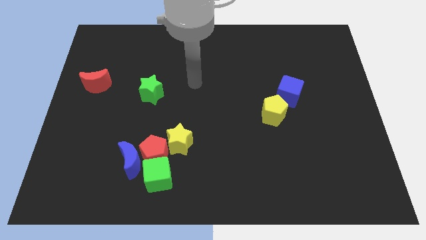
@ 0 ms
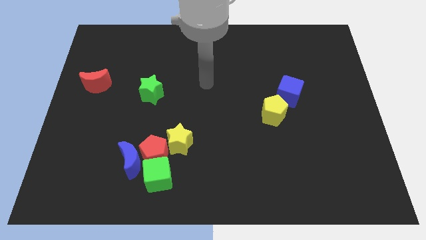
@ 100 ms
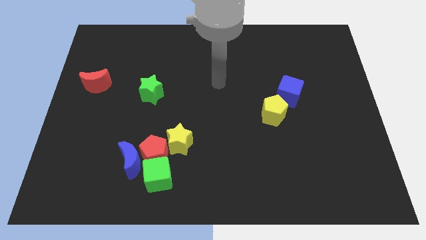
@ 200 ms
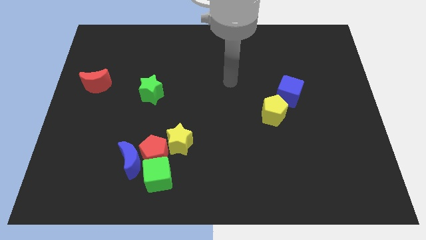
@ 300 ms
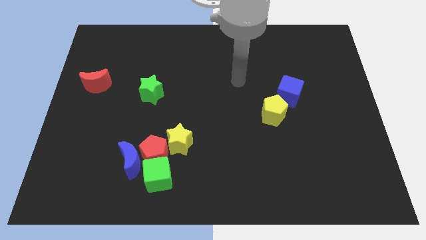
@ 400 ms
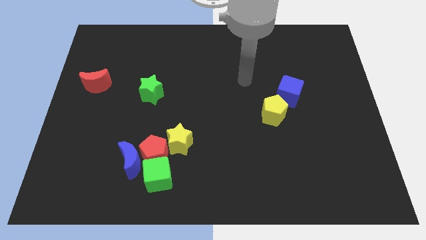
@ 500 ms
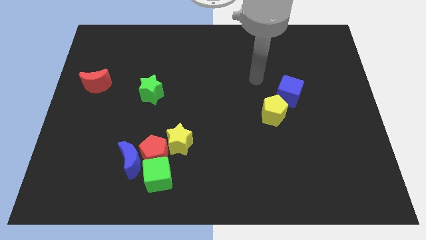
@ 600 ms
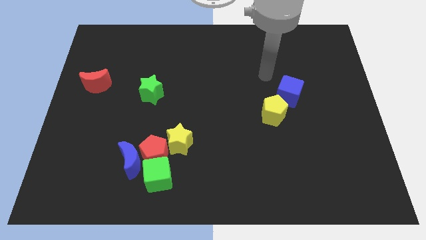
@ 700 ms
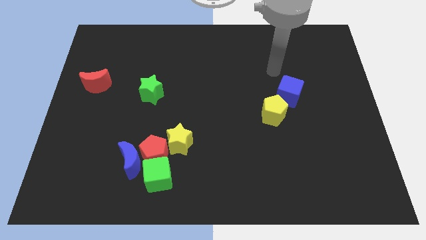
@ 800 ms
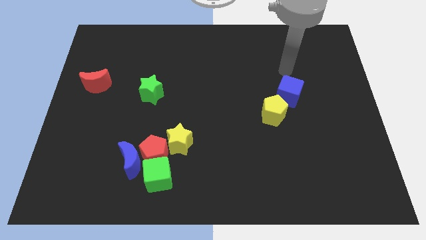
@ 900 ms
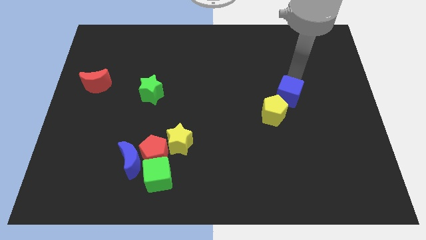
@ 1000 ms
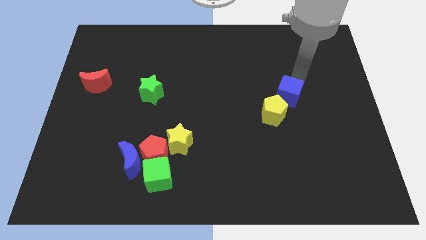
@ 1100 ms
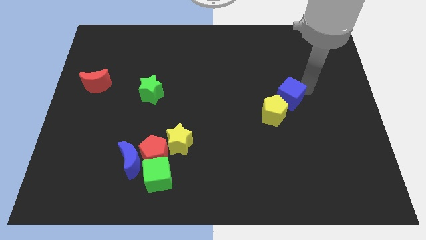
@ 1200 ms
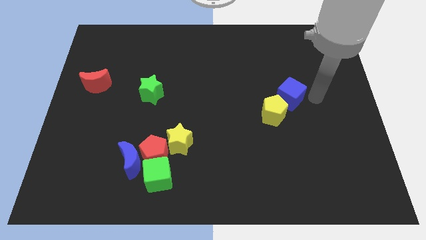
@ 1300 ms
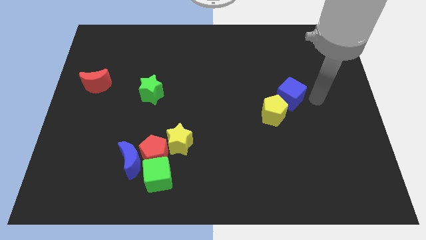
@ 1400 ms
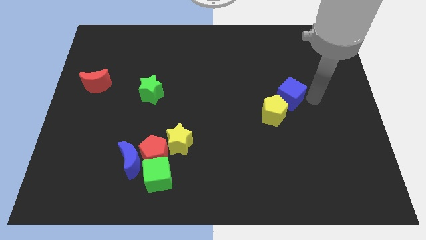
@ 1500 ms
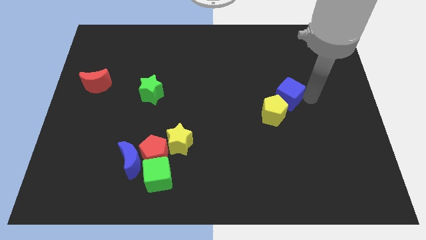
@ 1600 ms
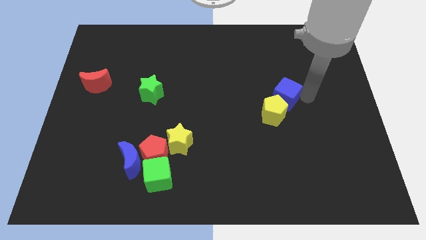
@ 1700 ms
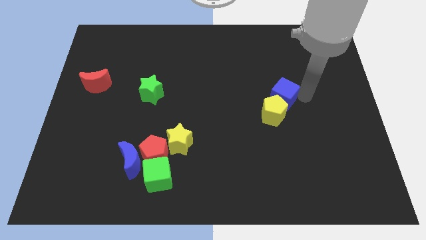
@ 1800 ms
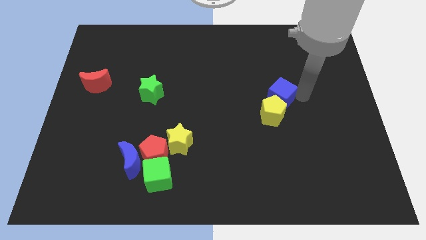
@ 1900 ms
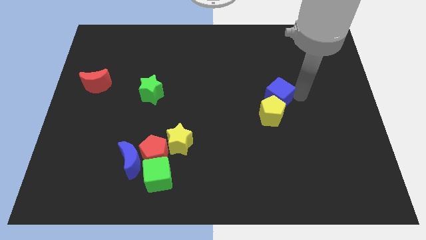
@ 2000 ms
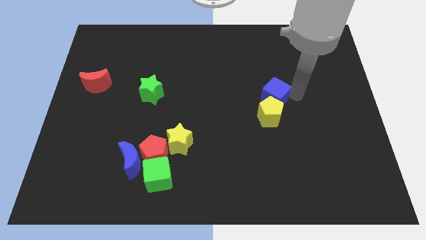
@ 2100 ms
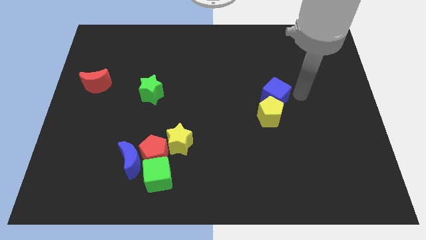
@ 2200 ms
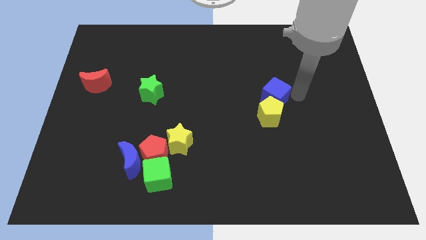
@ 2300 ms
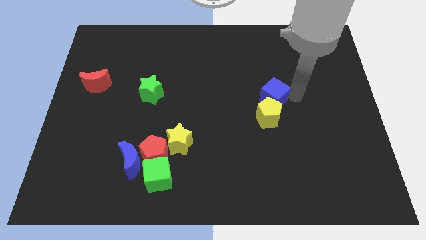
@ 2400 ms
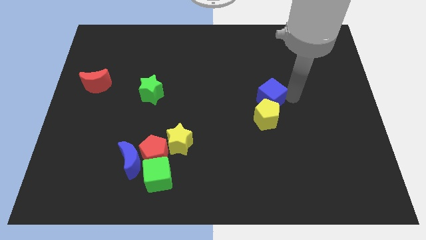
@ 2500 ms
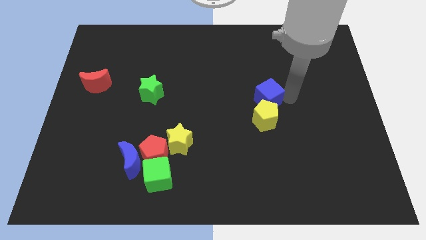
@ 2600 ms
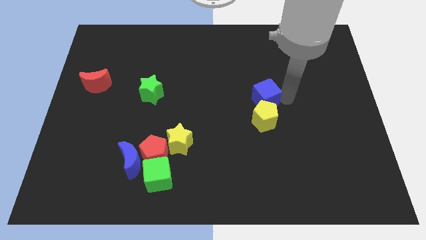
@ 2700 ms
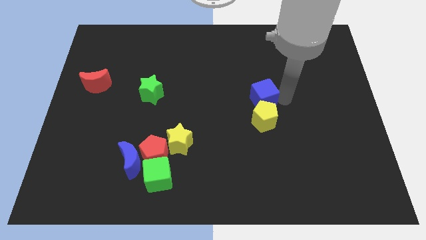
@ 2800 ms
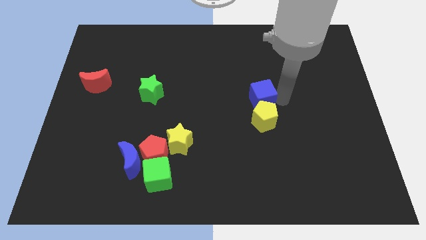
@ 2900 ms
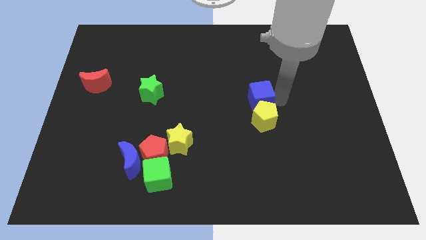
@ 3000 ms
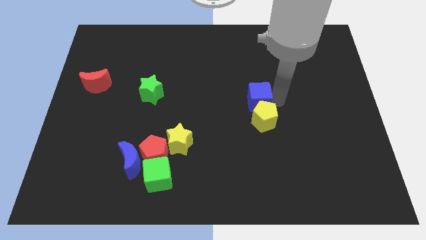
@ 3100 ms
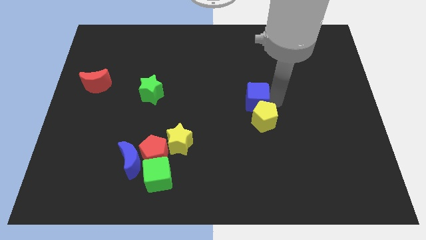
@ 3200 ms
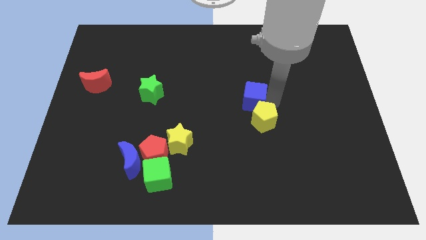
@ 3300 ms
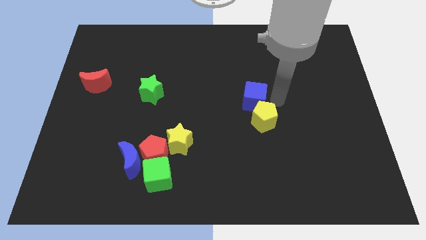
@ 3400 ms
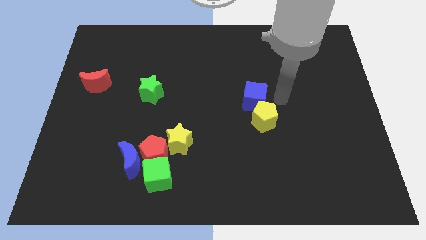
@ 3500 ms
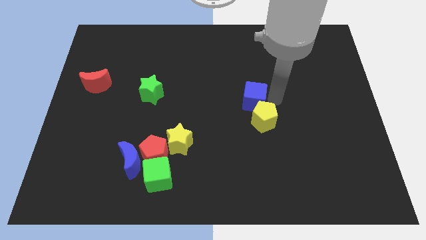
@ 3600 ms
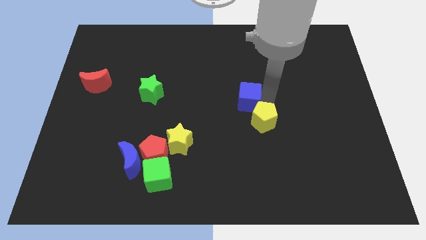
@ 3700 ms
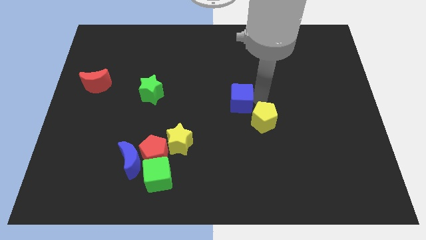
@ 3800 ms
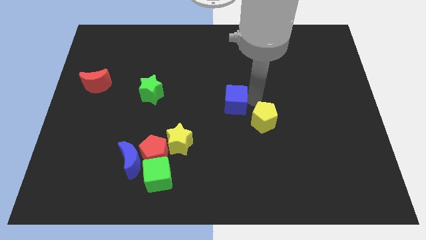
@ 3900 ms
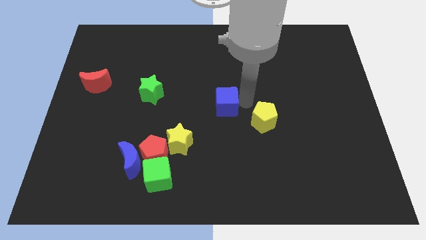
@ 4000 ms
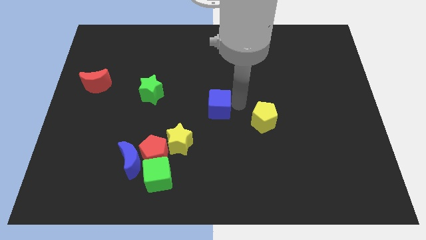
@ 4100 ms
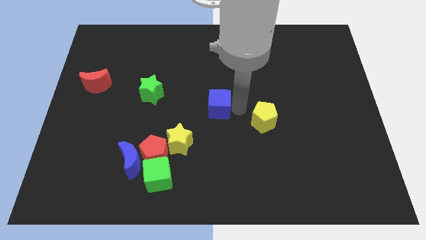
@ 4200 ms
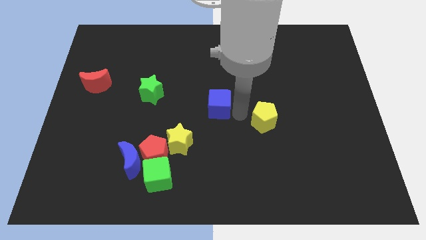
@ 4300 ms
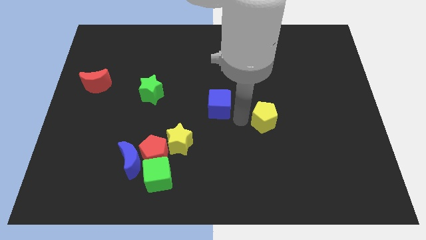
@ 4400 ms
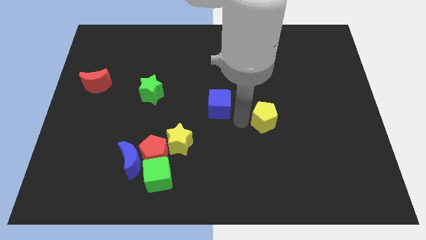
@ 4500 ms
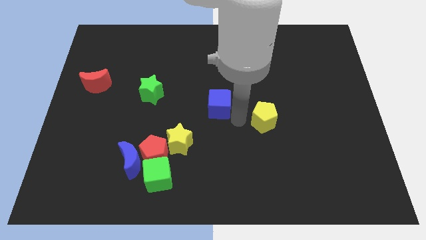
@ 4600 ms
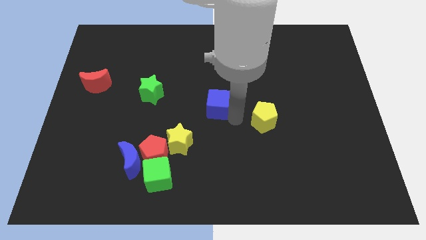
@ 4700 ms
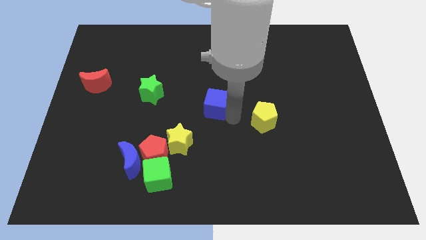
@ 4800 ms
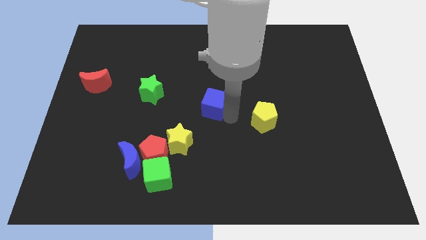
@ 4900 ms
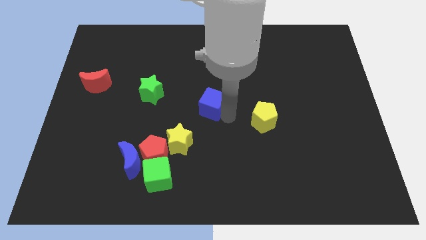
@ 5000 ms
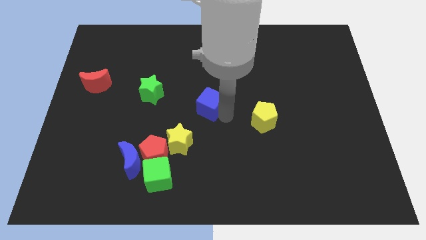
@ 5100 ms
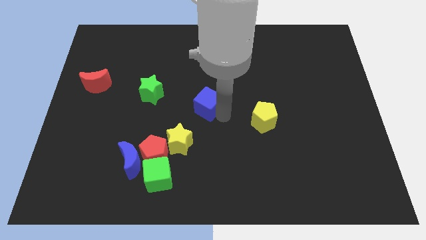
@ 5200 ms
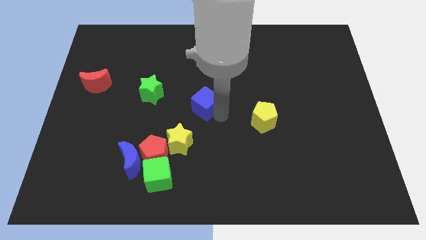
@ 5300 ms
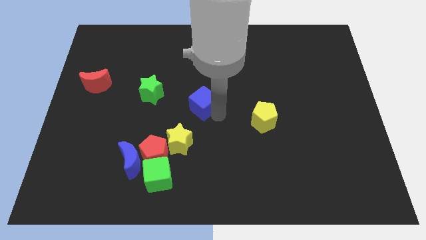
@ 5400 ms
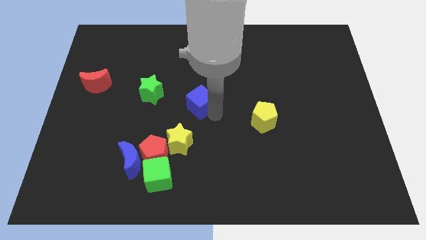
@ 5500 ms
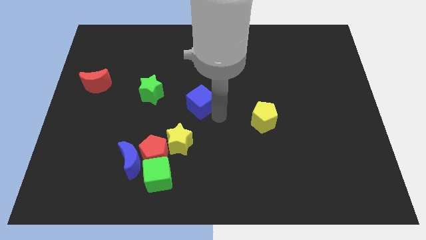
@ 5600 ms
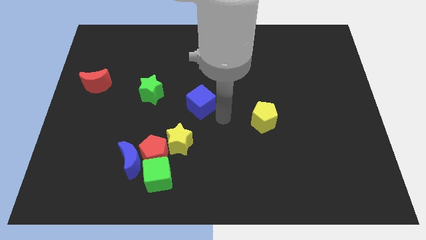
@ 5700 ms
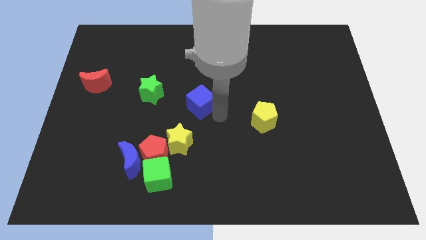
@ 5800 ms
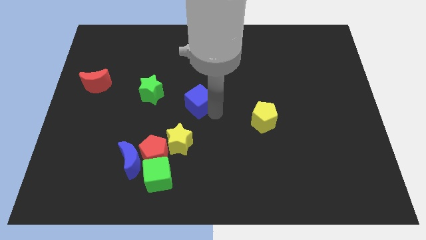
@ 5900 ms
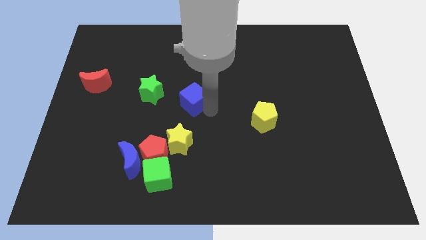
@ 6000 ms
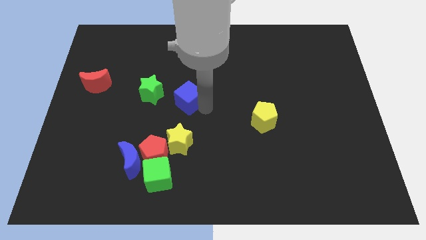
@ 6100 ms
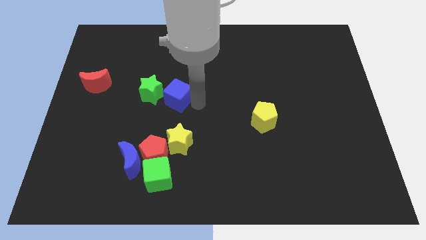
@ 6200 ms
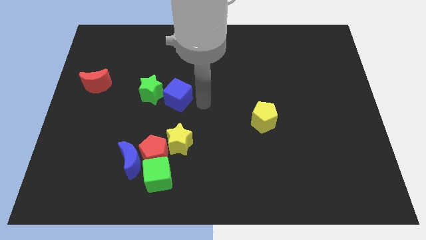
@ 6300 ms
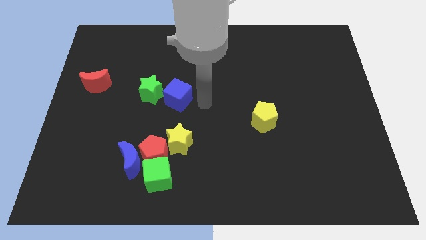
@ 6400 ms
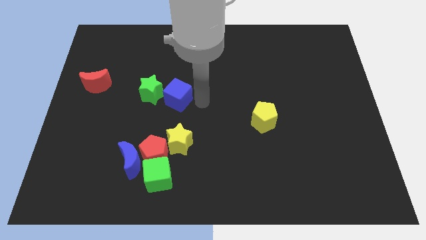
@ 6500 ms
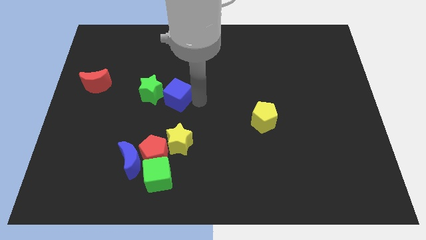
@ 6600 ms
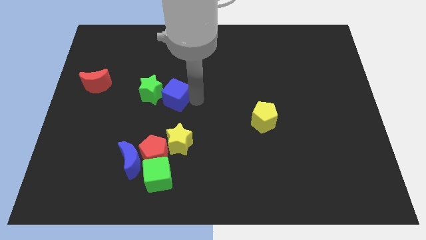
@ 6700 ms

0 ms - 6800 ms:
slide the blue cube towards the green star

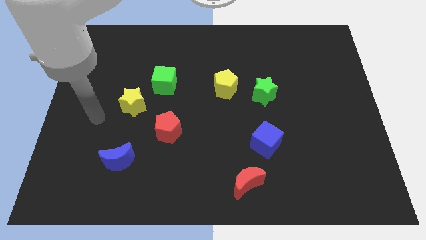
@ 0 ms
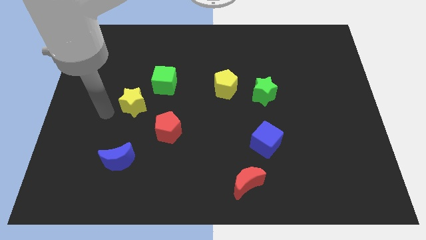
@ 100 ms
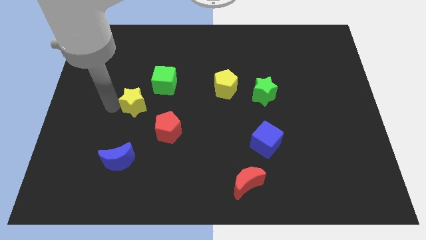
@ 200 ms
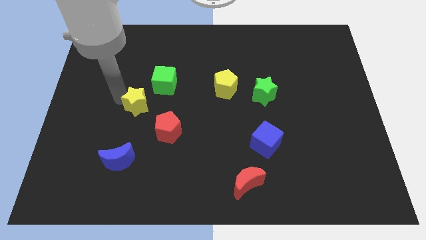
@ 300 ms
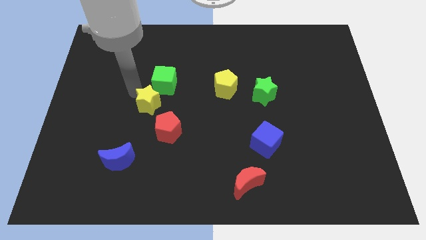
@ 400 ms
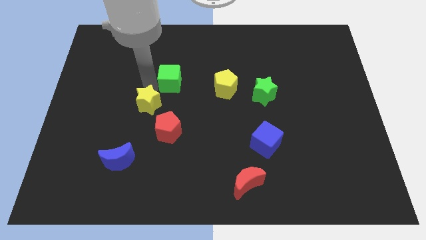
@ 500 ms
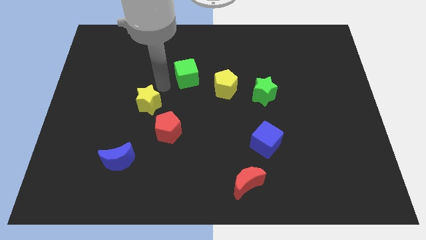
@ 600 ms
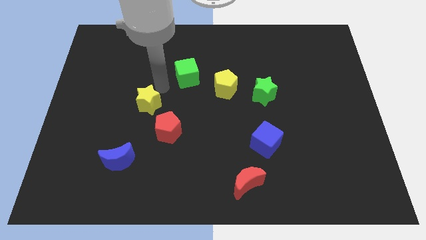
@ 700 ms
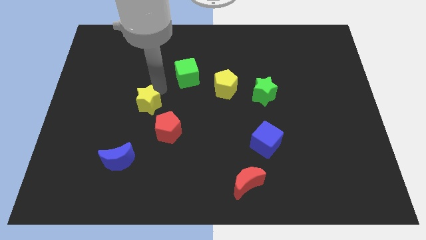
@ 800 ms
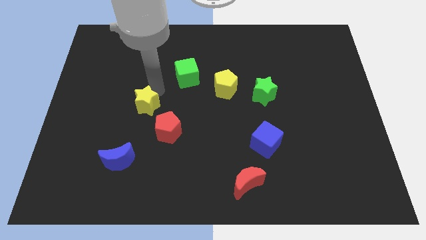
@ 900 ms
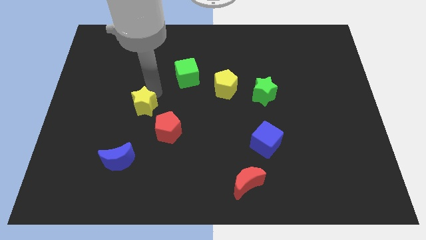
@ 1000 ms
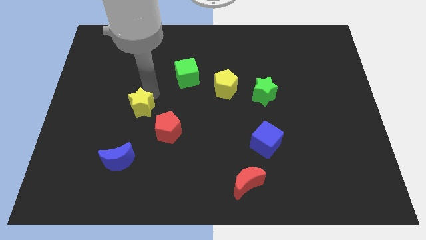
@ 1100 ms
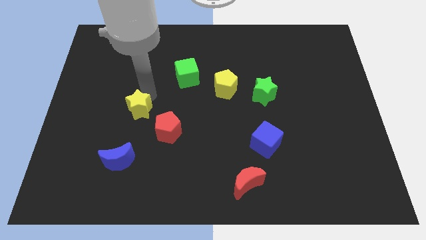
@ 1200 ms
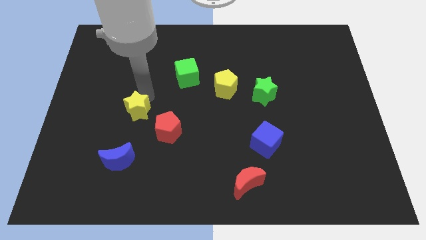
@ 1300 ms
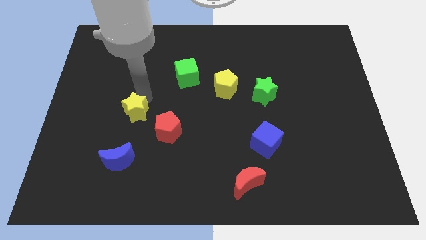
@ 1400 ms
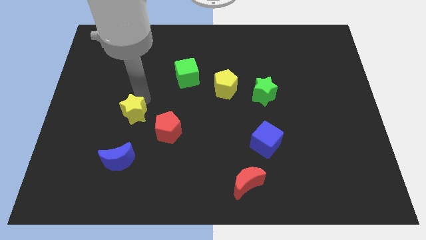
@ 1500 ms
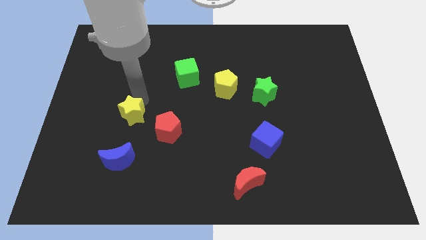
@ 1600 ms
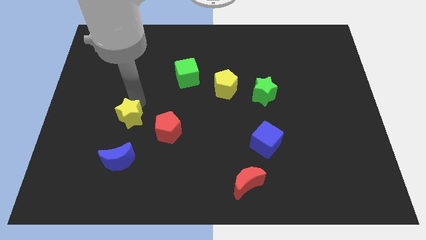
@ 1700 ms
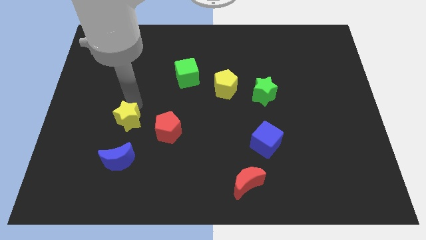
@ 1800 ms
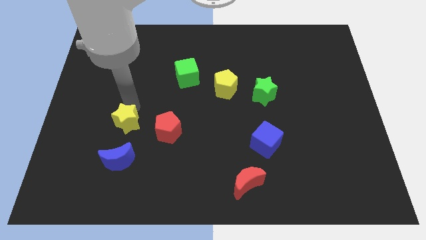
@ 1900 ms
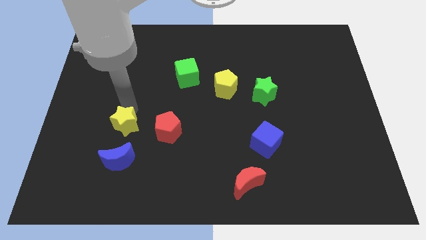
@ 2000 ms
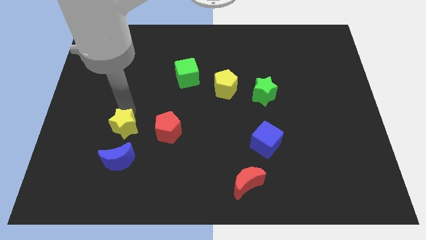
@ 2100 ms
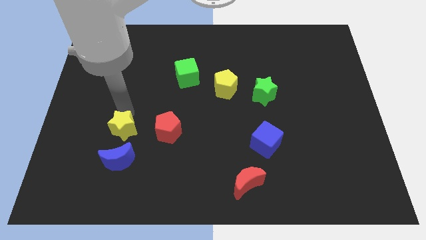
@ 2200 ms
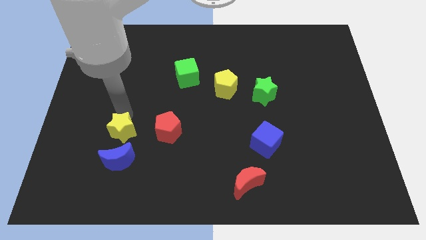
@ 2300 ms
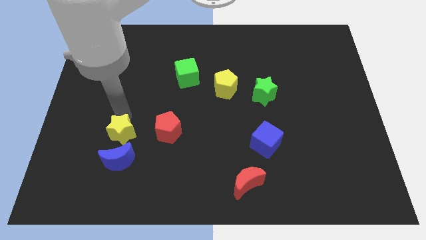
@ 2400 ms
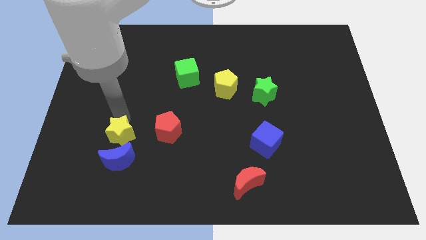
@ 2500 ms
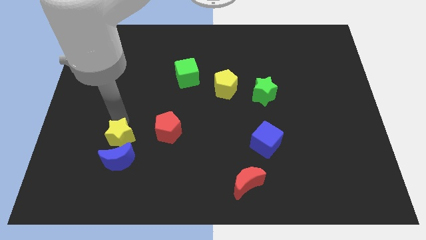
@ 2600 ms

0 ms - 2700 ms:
push the yellow star next to the blue moon
